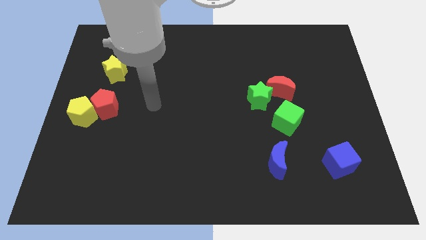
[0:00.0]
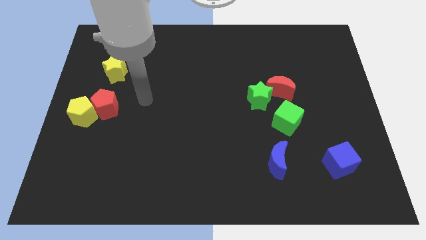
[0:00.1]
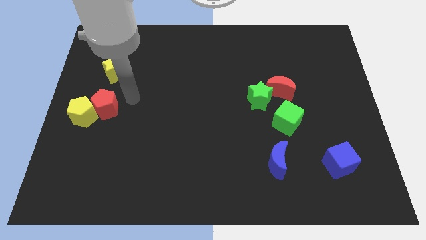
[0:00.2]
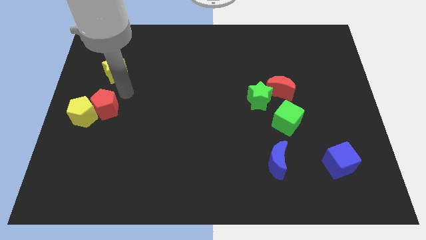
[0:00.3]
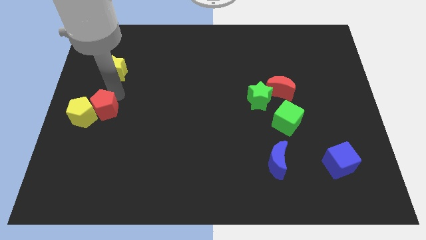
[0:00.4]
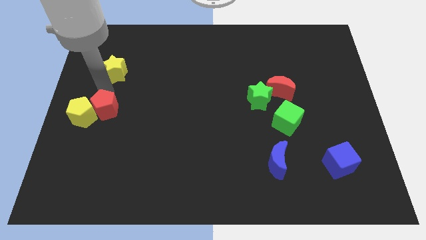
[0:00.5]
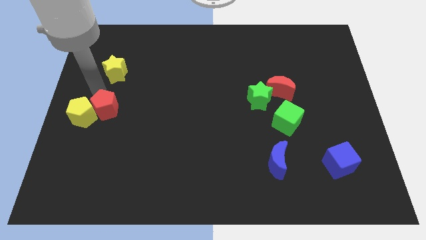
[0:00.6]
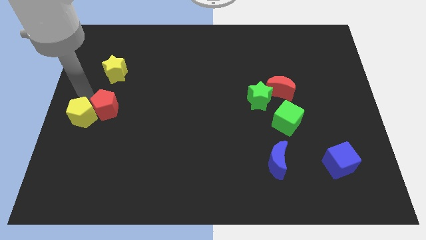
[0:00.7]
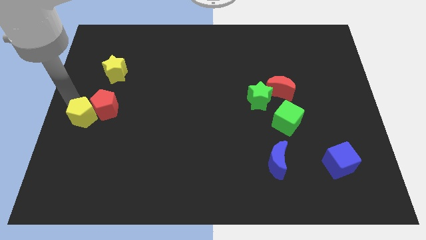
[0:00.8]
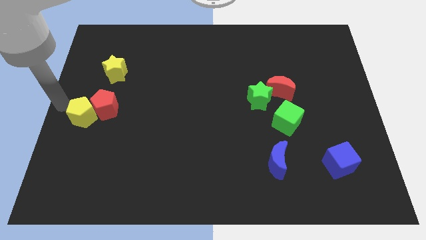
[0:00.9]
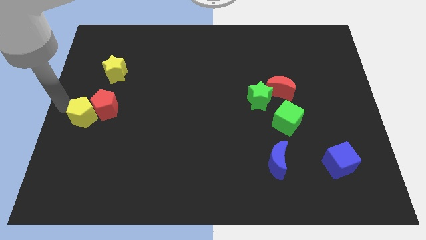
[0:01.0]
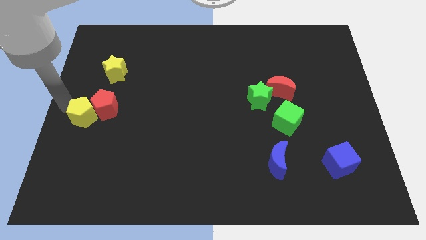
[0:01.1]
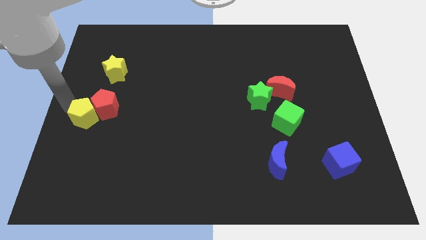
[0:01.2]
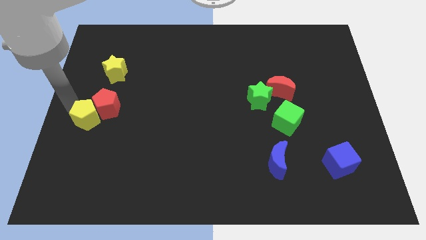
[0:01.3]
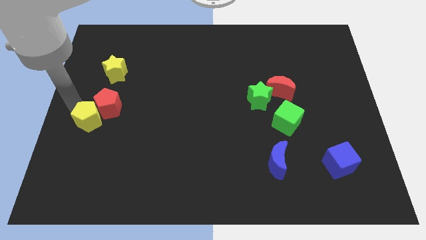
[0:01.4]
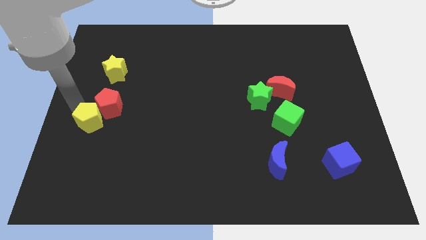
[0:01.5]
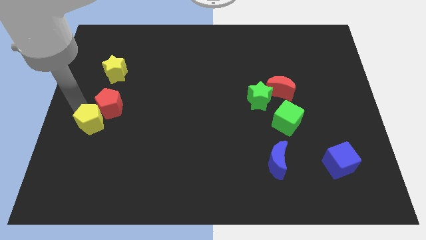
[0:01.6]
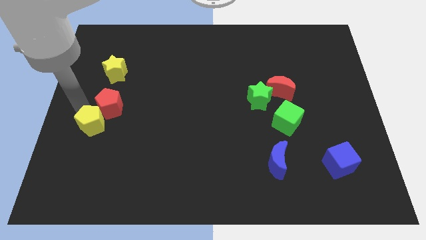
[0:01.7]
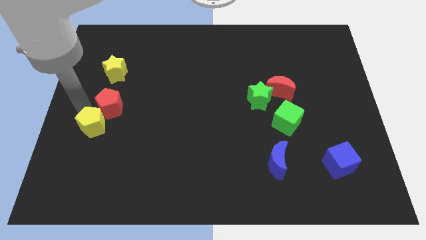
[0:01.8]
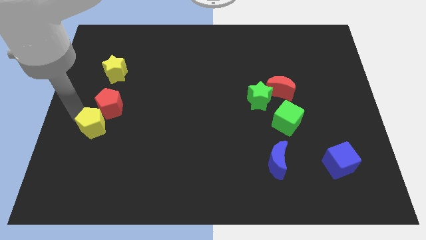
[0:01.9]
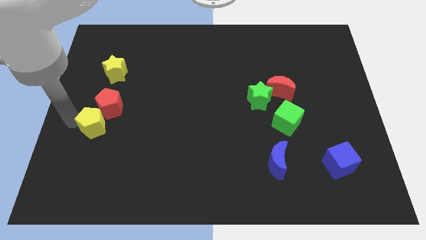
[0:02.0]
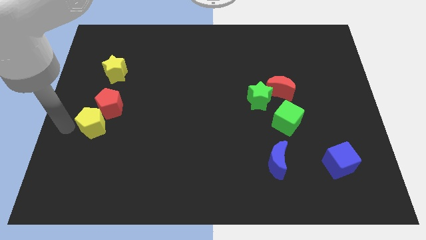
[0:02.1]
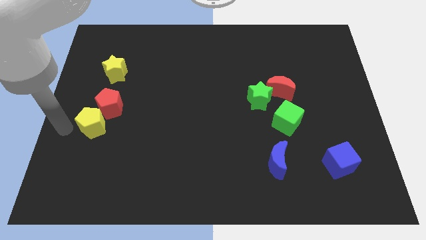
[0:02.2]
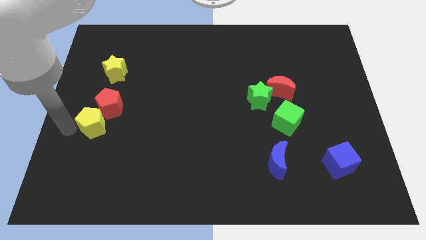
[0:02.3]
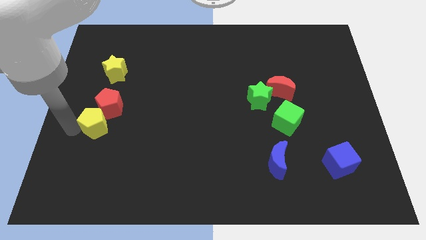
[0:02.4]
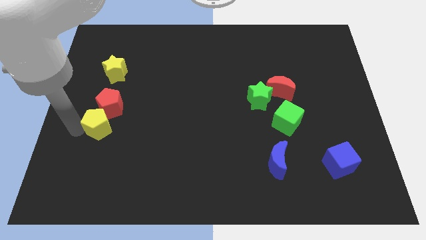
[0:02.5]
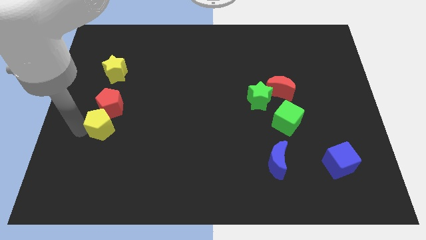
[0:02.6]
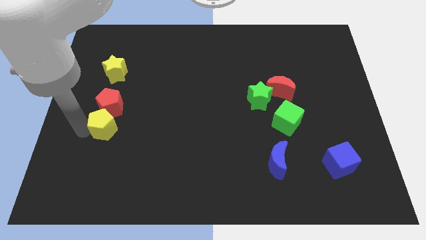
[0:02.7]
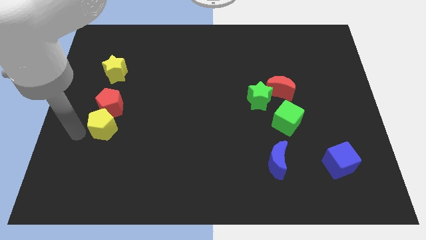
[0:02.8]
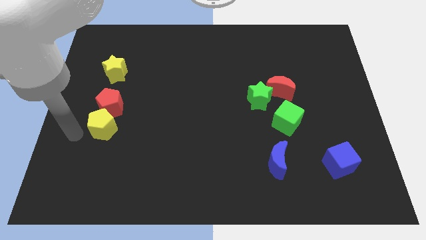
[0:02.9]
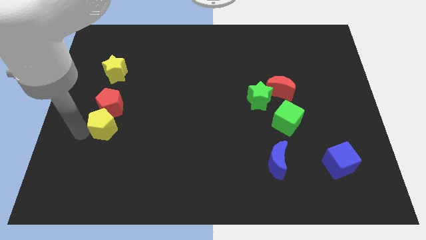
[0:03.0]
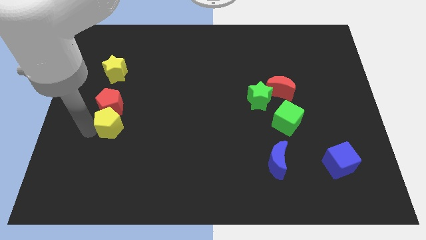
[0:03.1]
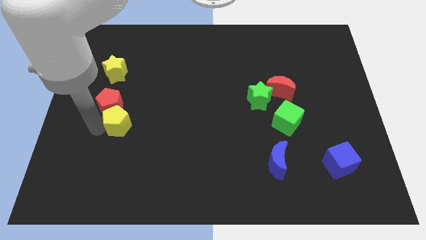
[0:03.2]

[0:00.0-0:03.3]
slightly push the yellow pentagon to the right

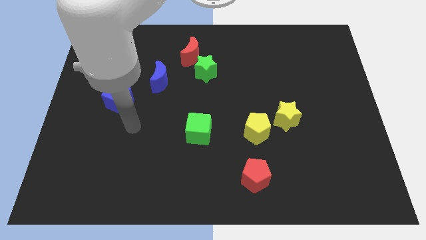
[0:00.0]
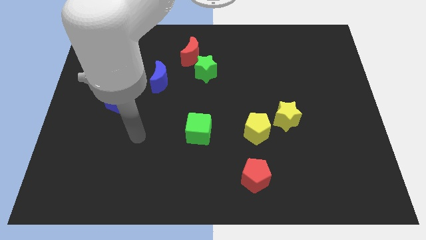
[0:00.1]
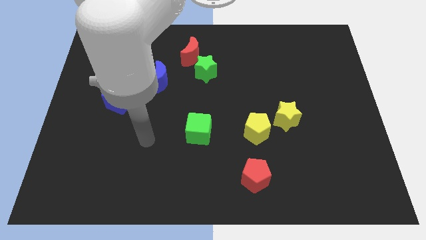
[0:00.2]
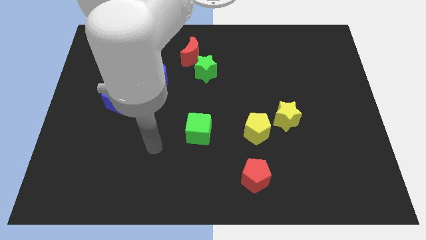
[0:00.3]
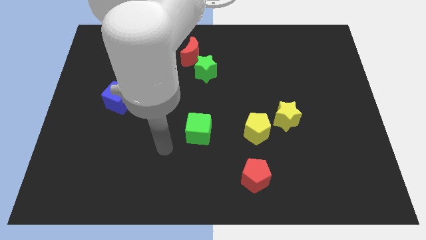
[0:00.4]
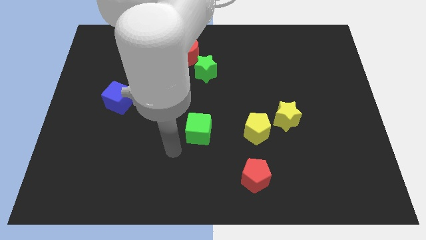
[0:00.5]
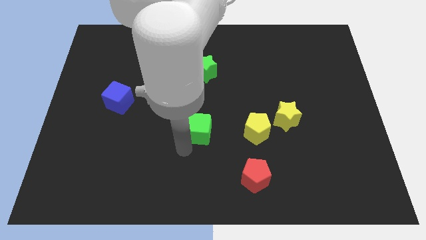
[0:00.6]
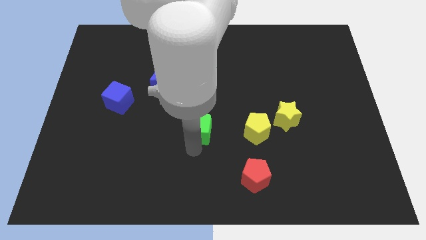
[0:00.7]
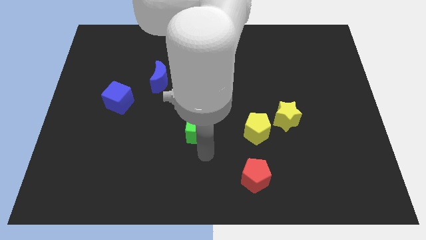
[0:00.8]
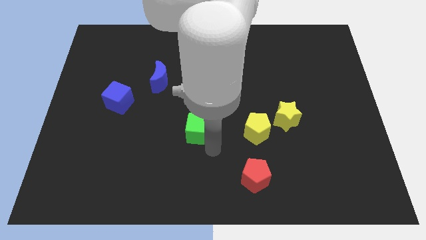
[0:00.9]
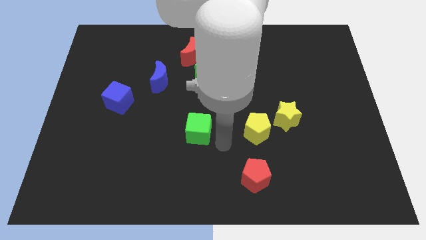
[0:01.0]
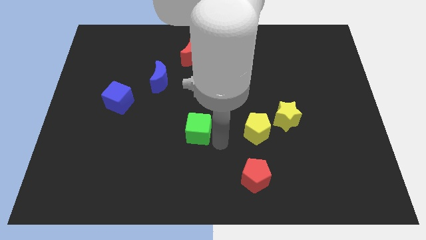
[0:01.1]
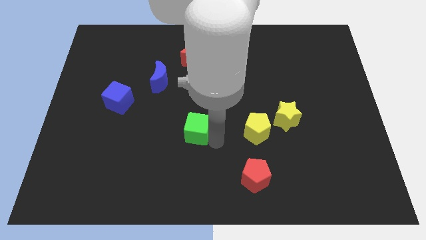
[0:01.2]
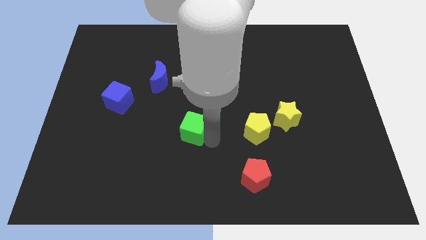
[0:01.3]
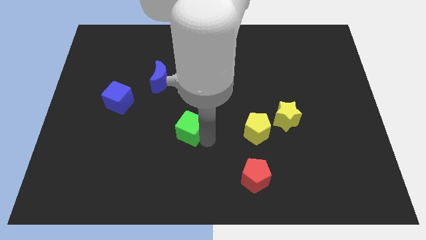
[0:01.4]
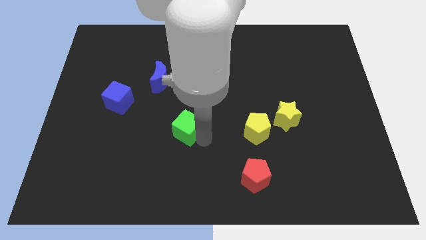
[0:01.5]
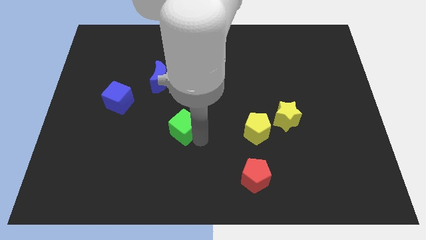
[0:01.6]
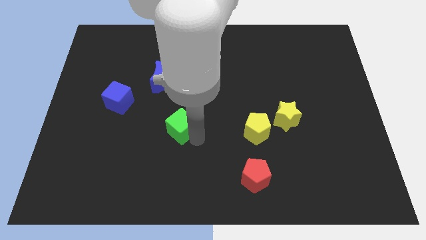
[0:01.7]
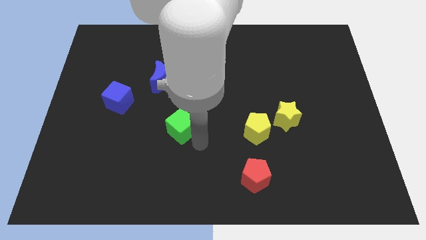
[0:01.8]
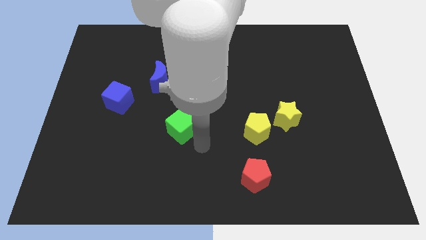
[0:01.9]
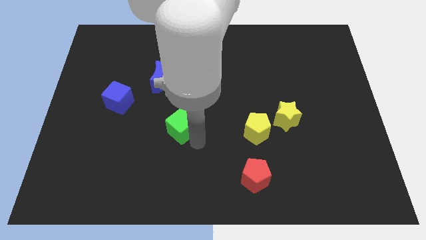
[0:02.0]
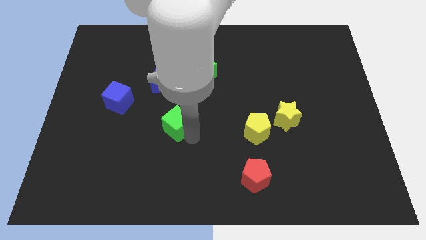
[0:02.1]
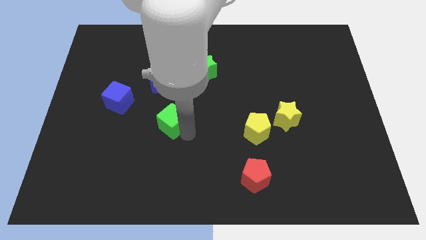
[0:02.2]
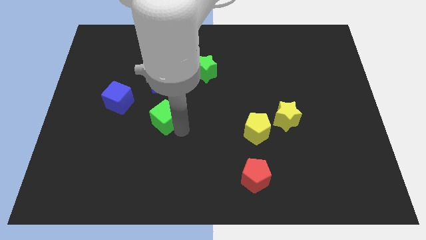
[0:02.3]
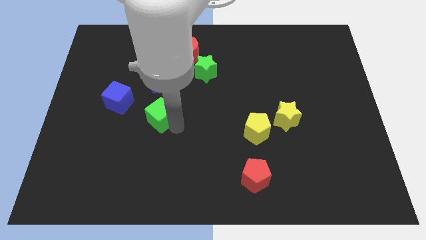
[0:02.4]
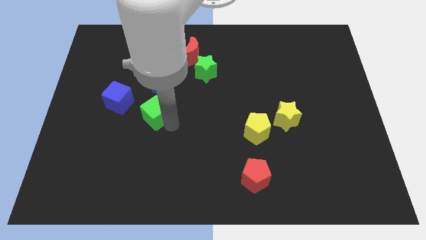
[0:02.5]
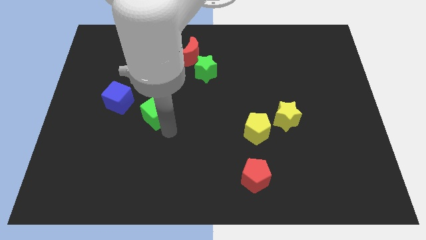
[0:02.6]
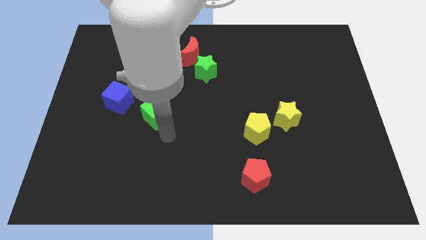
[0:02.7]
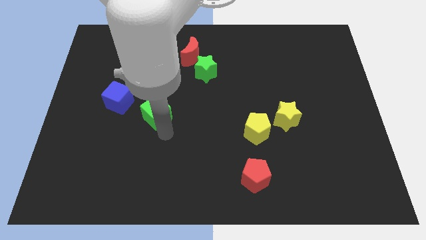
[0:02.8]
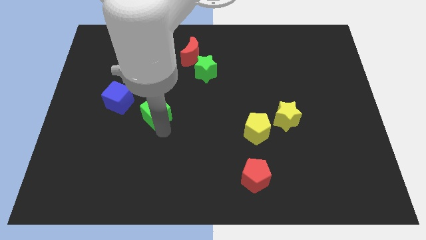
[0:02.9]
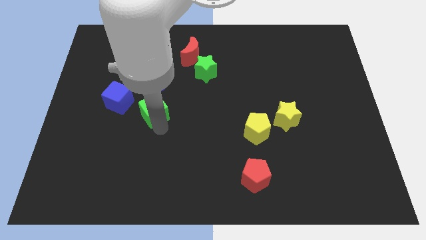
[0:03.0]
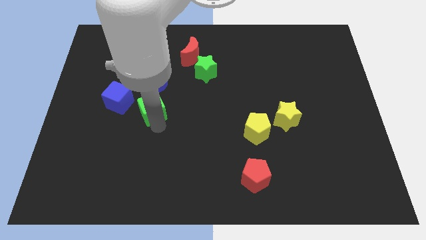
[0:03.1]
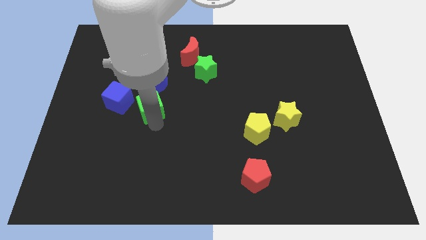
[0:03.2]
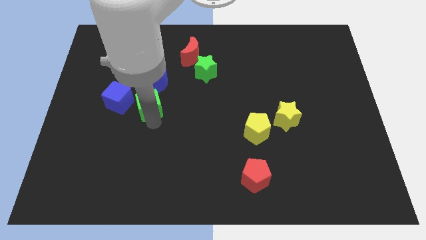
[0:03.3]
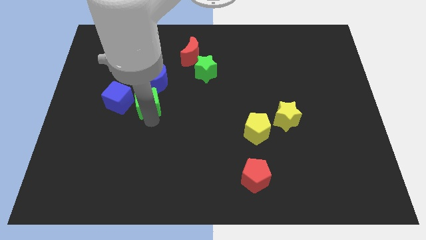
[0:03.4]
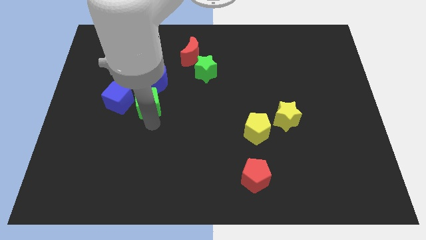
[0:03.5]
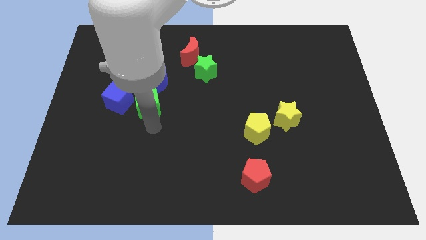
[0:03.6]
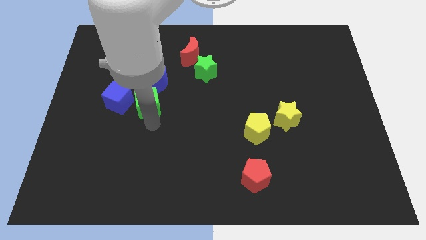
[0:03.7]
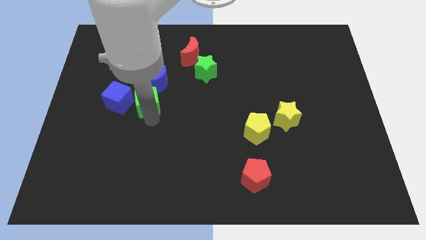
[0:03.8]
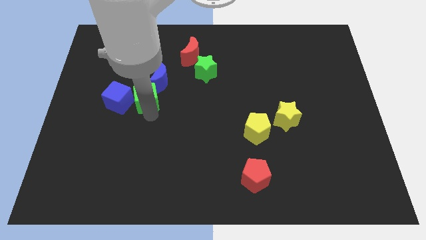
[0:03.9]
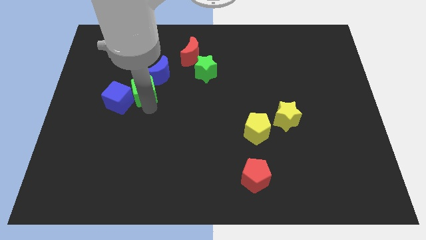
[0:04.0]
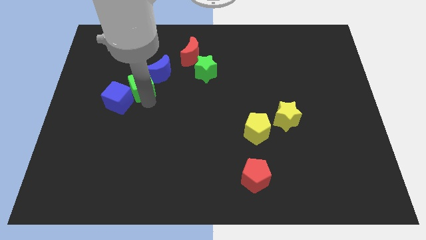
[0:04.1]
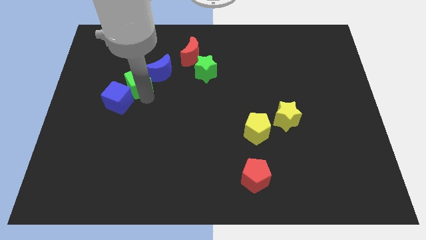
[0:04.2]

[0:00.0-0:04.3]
push the green cube diagonally upwards and left

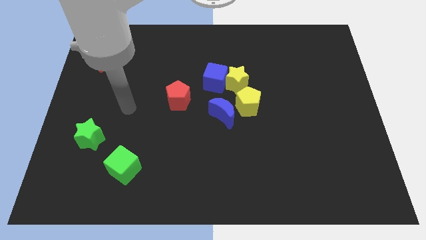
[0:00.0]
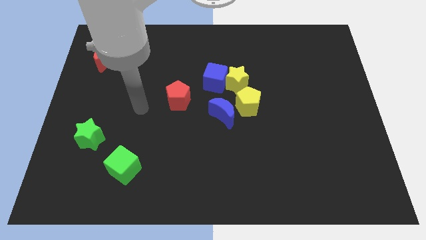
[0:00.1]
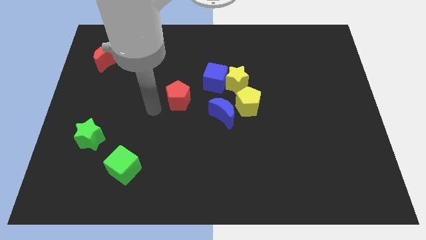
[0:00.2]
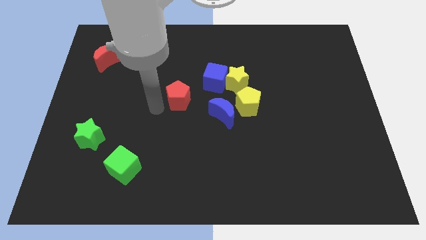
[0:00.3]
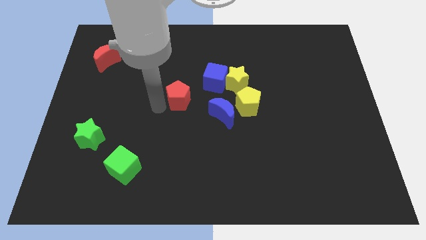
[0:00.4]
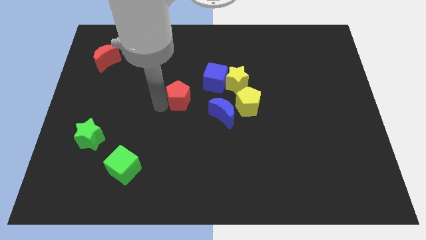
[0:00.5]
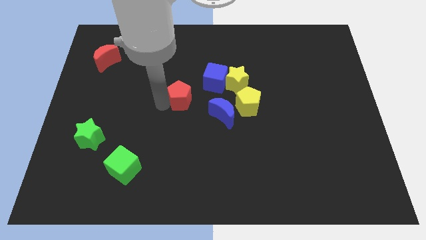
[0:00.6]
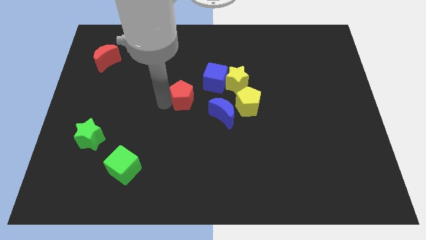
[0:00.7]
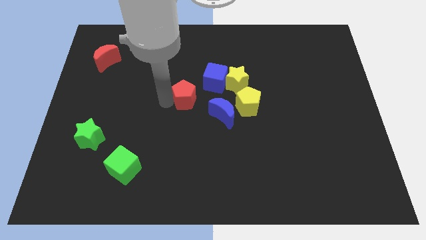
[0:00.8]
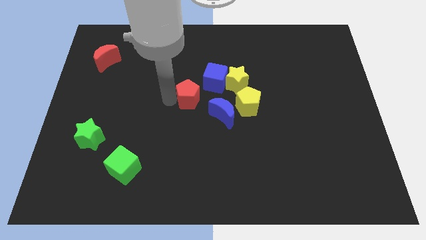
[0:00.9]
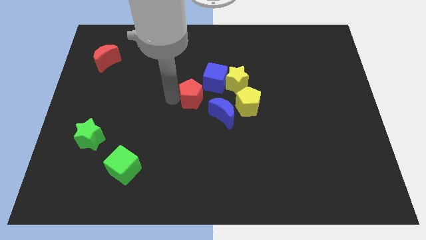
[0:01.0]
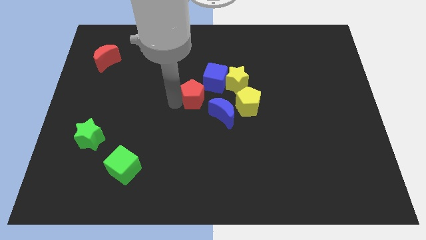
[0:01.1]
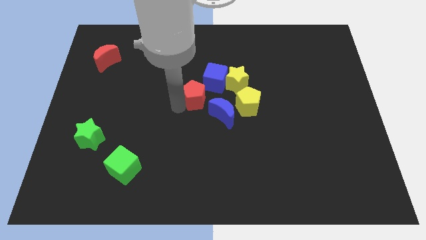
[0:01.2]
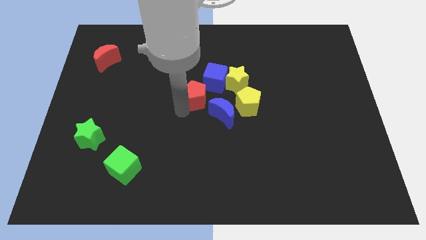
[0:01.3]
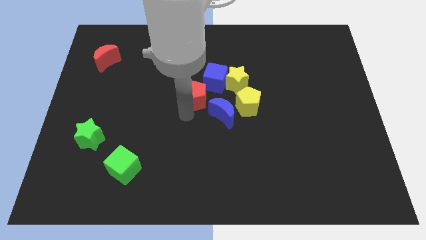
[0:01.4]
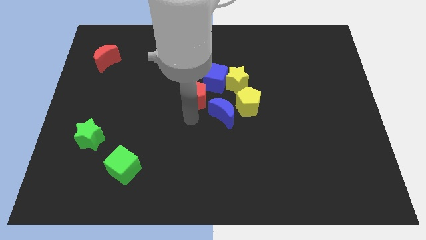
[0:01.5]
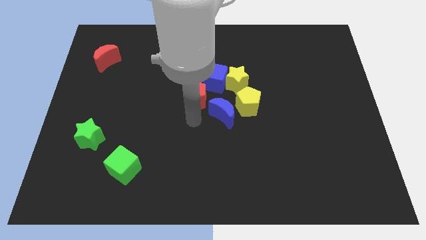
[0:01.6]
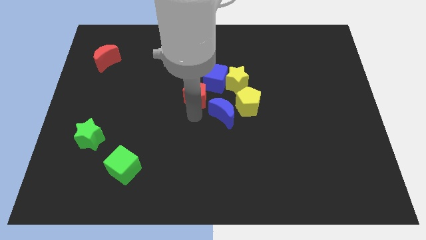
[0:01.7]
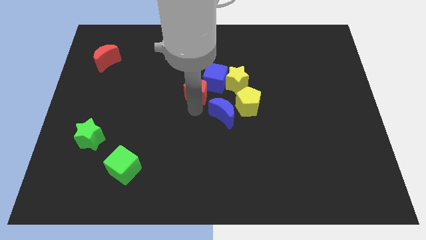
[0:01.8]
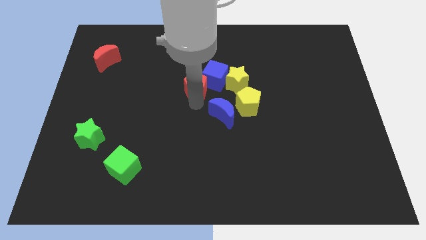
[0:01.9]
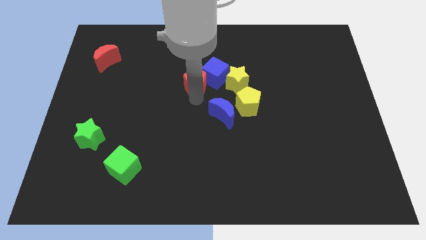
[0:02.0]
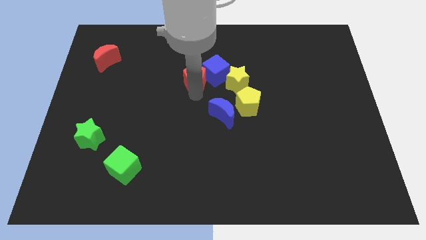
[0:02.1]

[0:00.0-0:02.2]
slightly move the red pentagon up and right
